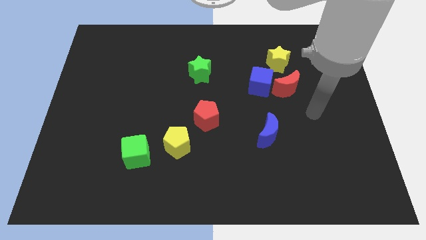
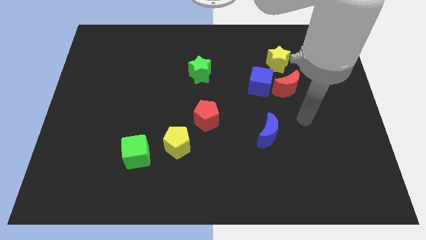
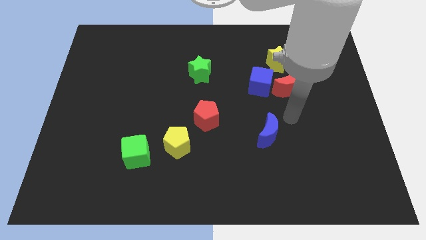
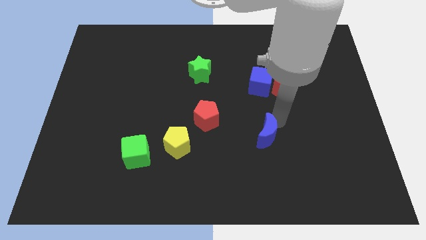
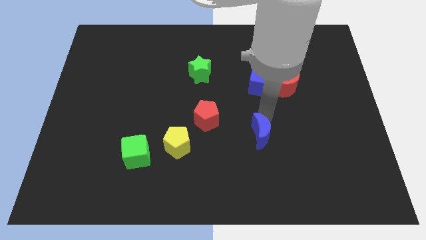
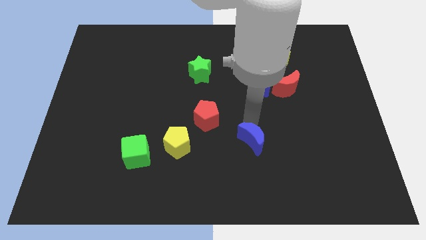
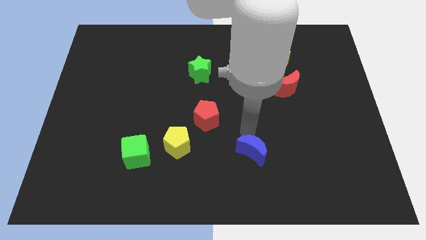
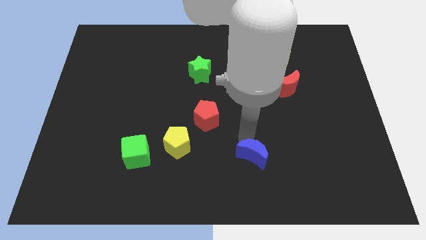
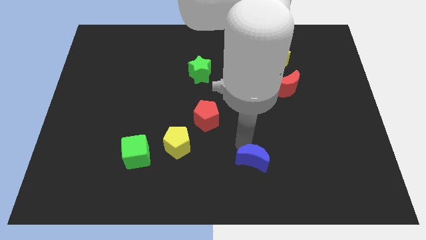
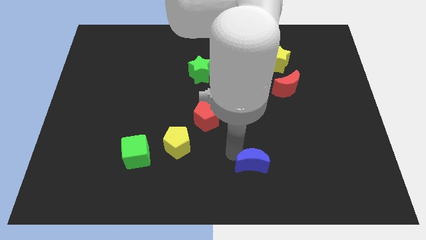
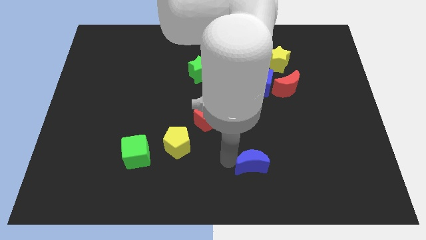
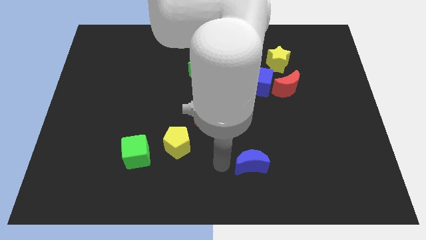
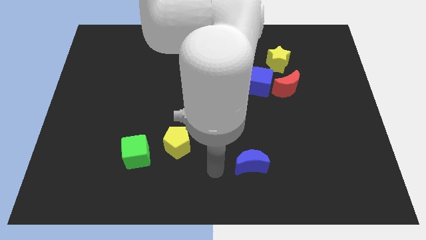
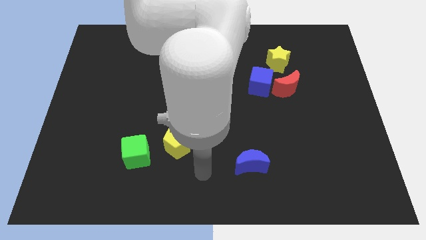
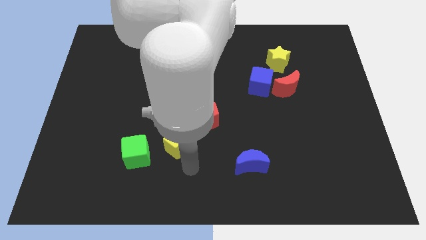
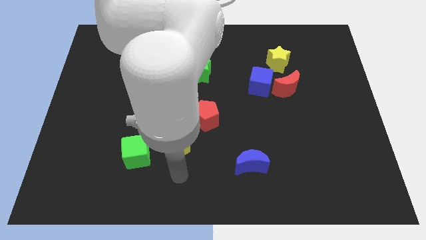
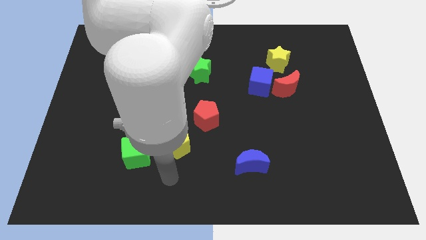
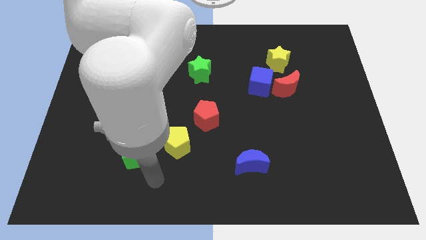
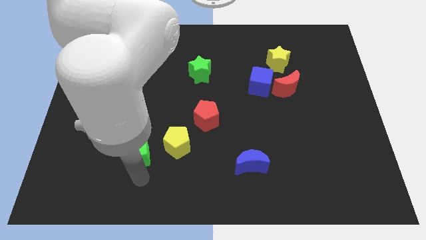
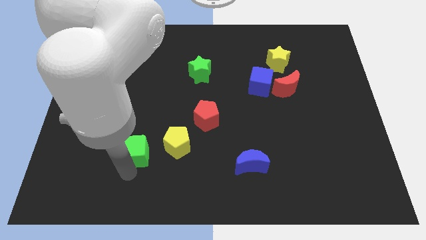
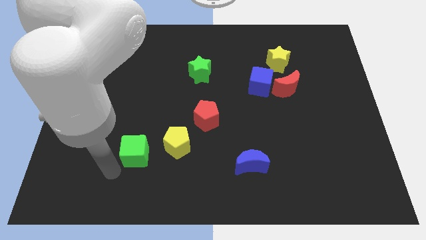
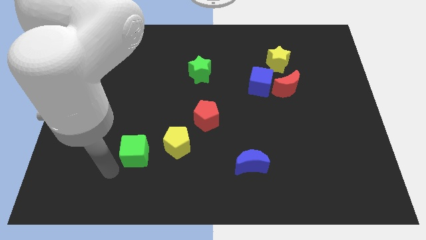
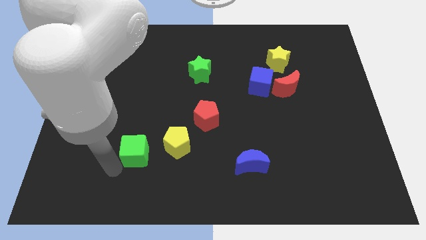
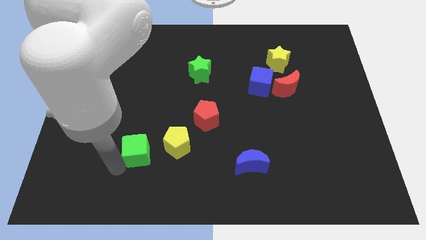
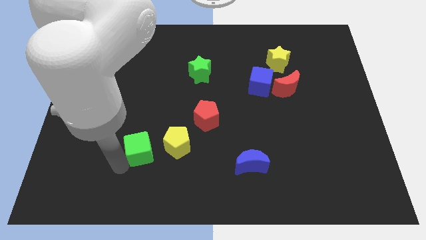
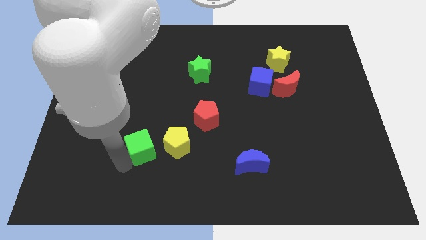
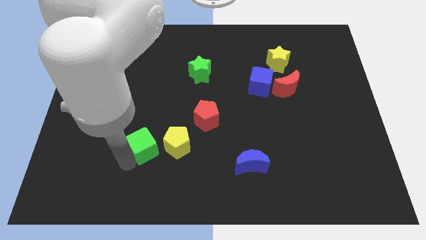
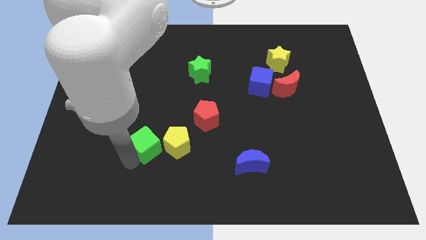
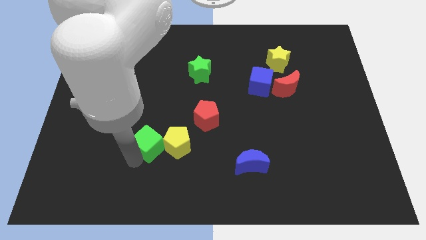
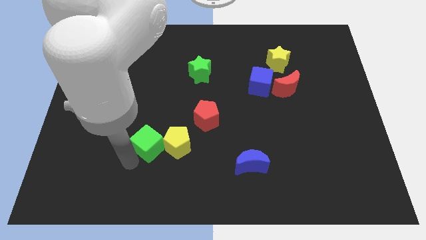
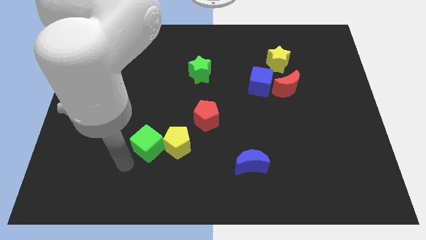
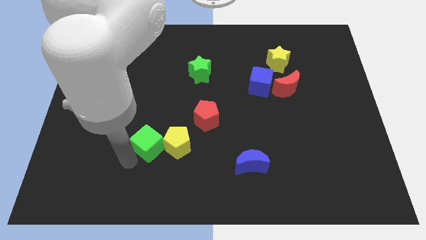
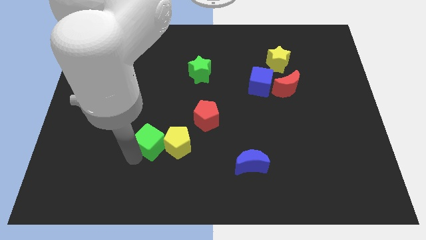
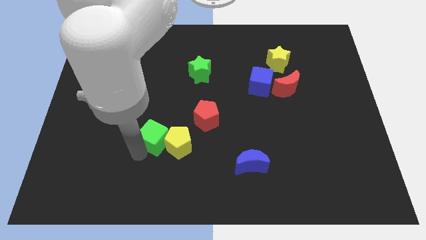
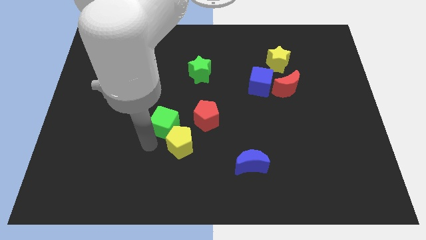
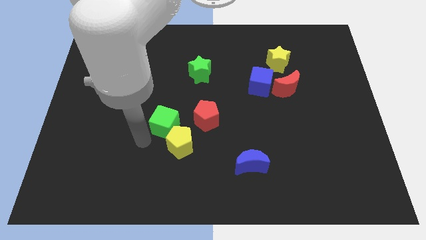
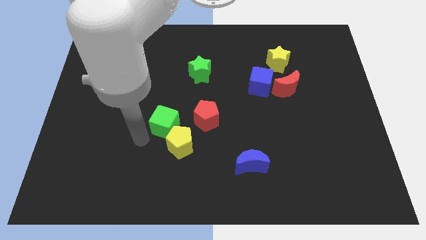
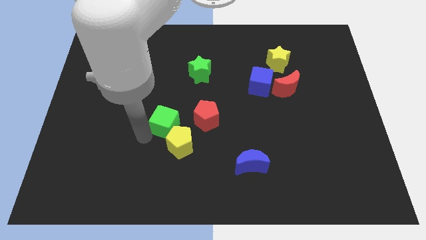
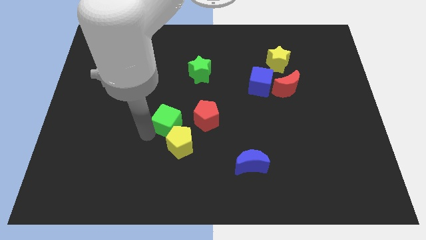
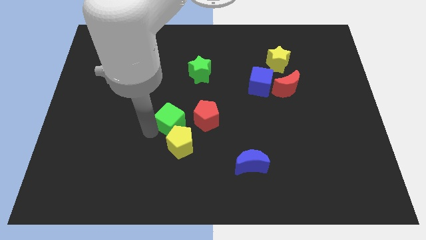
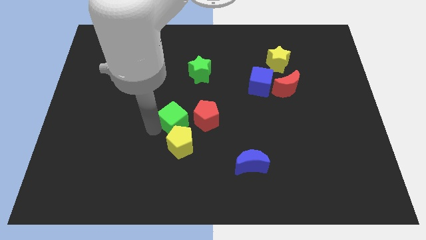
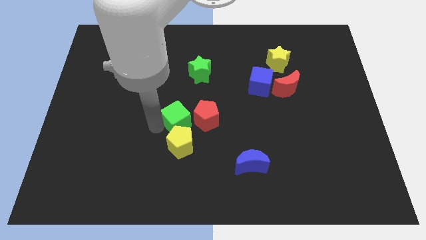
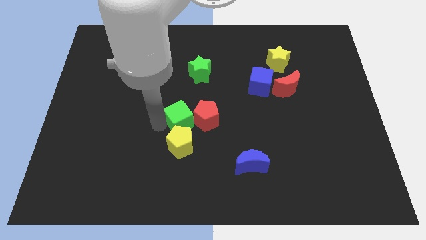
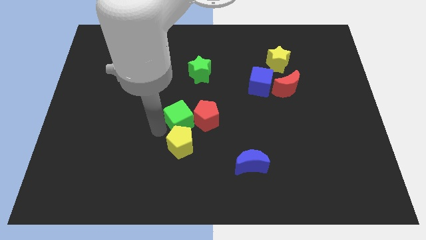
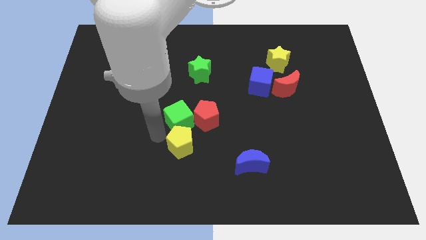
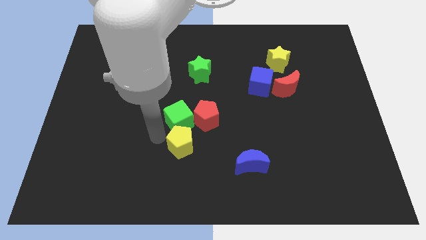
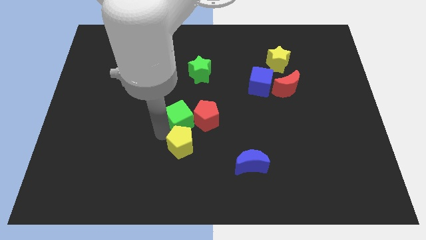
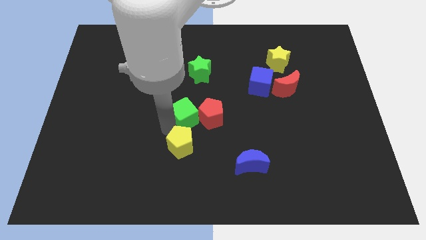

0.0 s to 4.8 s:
push the green cube to the bottom of the green star

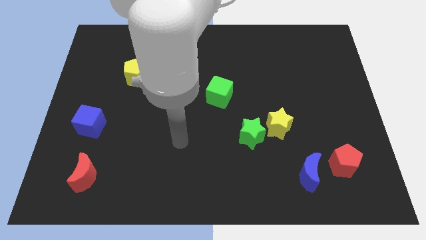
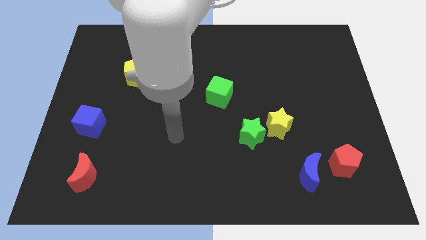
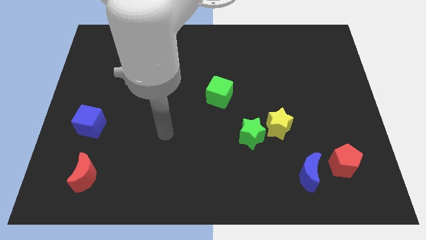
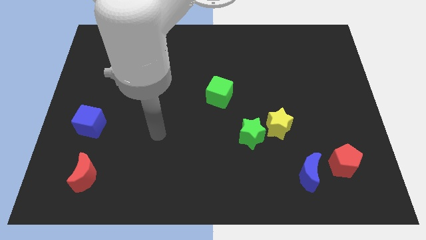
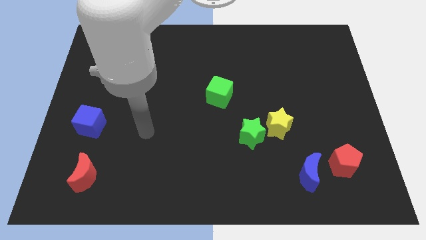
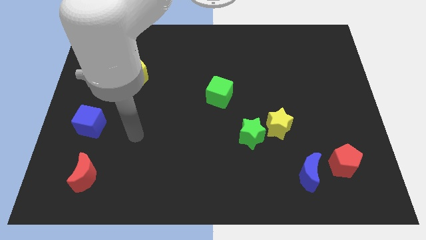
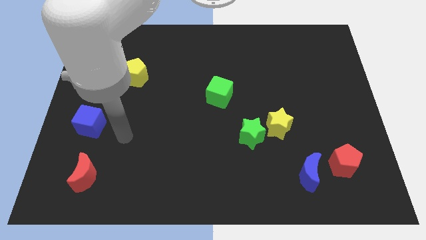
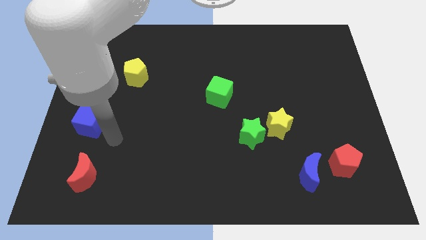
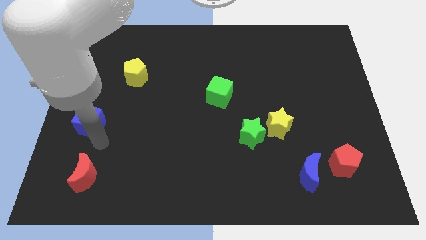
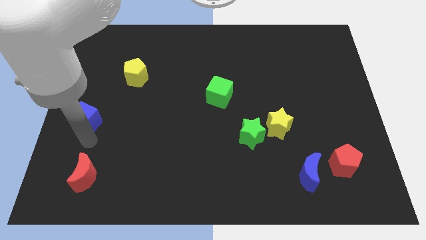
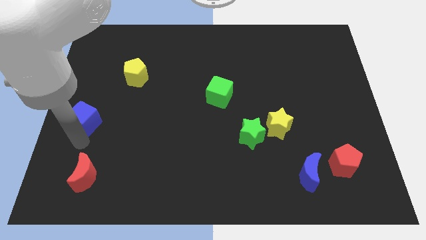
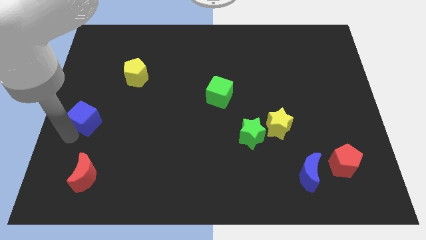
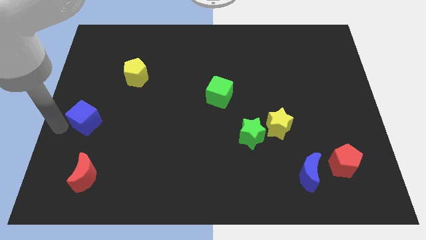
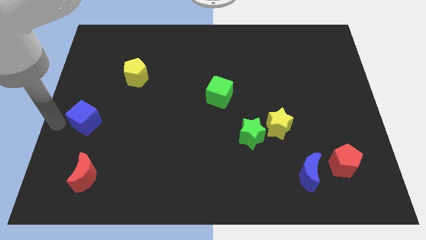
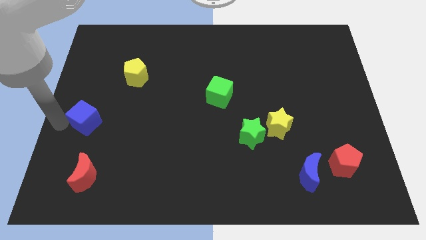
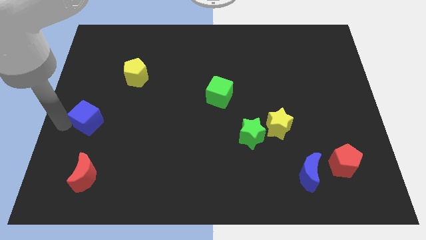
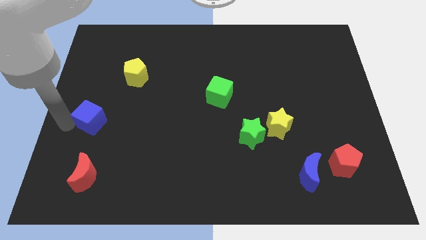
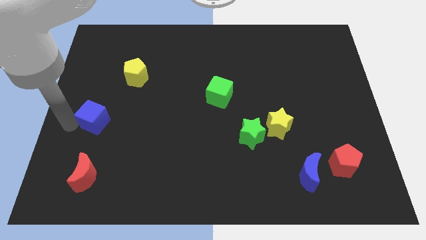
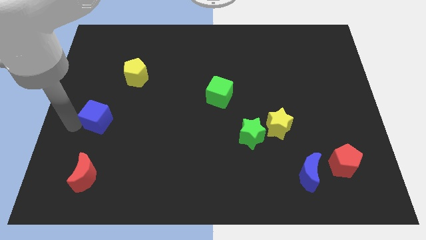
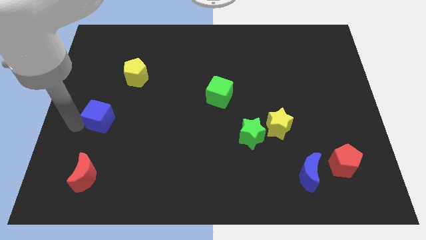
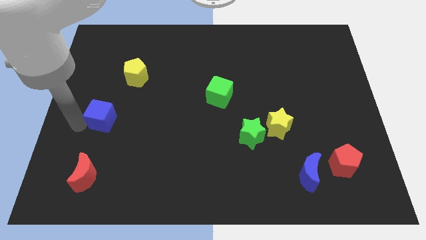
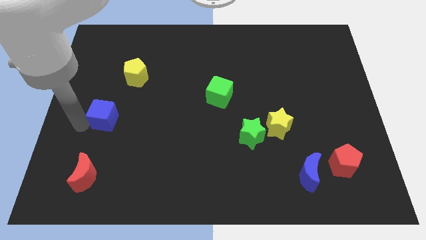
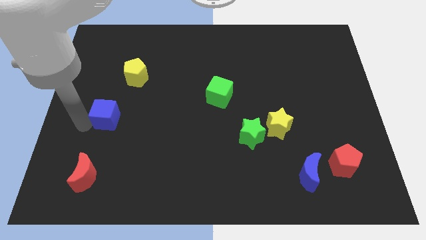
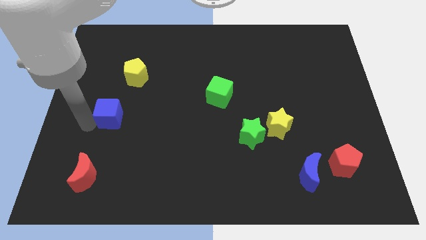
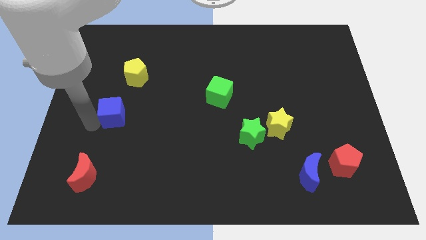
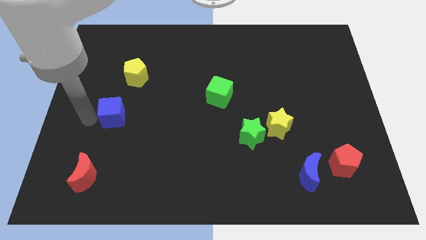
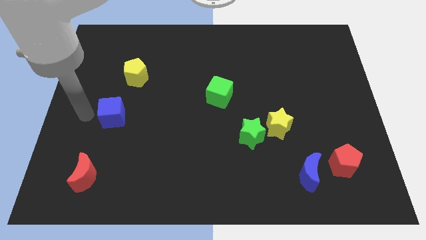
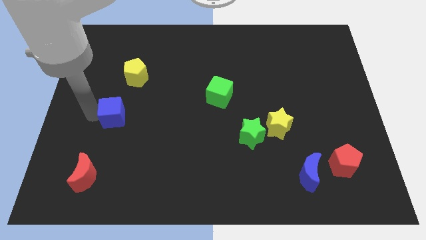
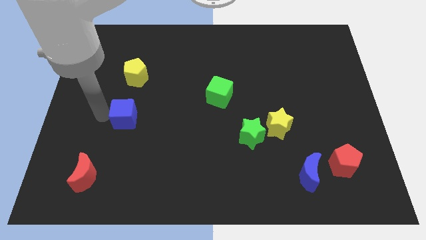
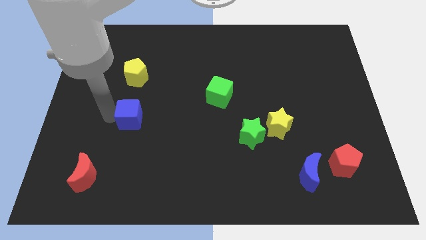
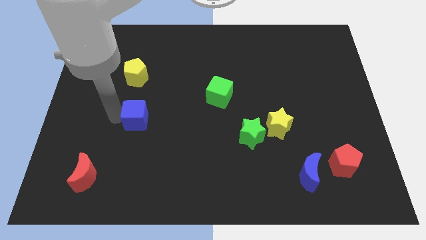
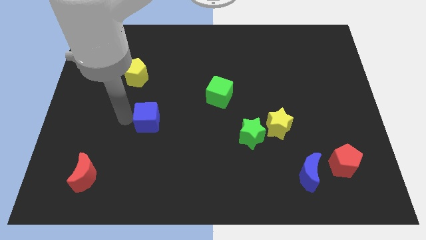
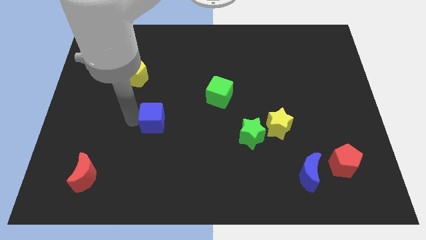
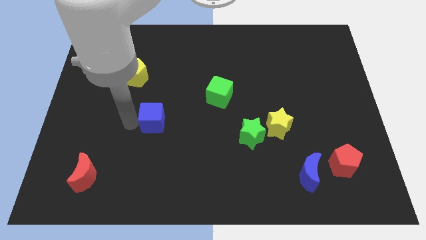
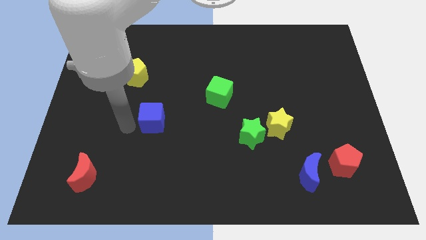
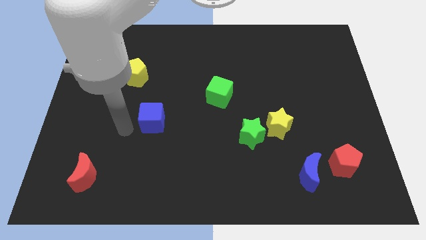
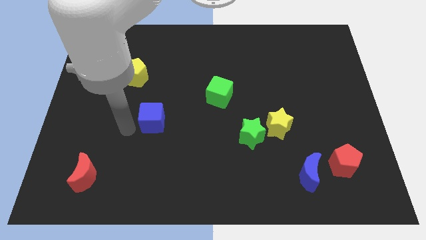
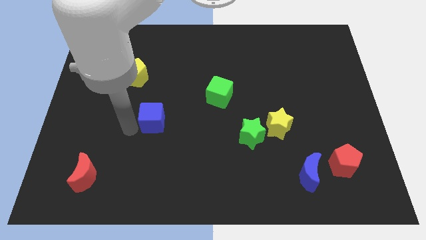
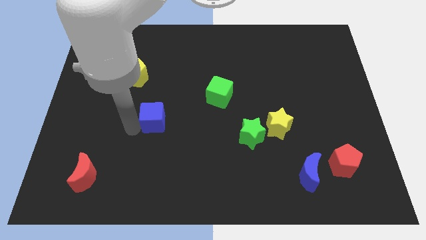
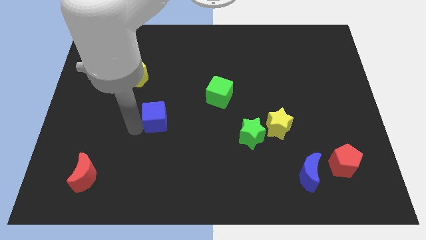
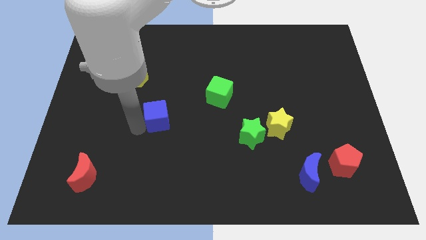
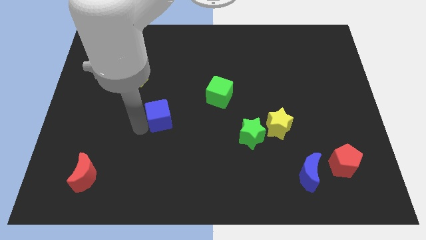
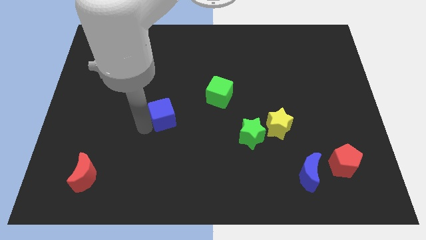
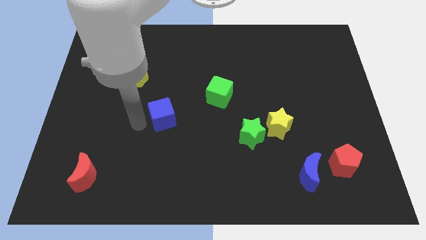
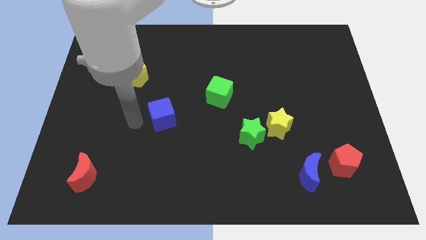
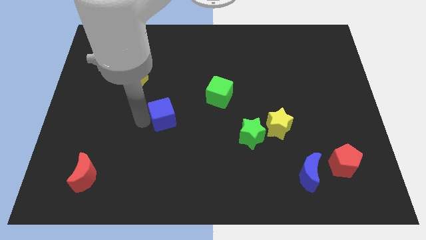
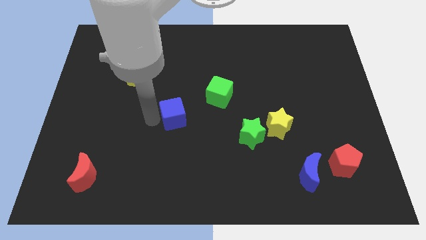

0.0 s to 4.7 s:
put the blue cube diagonally down and to the left of the green cube
